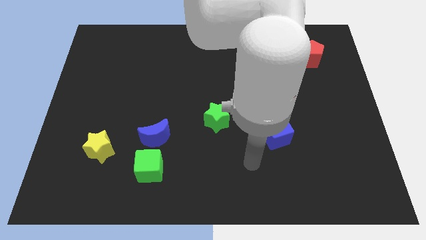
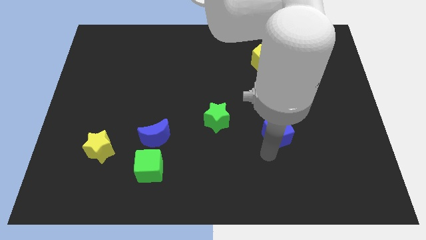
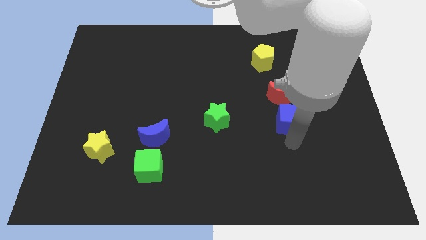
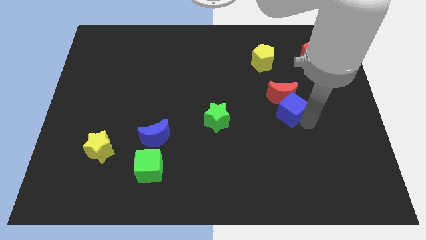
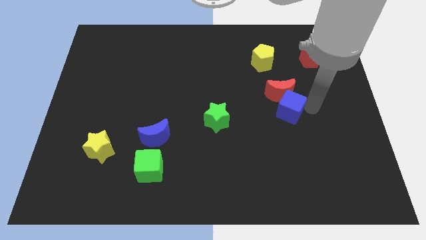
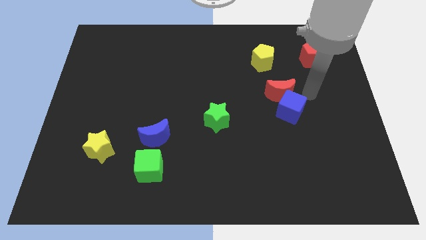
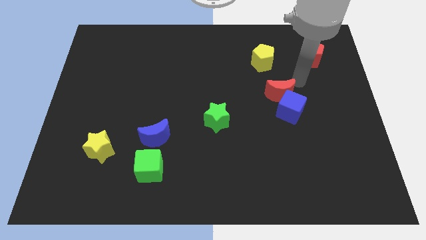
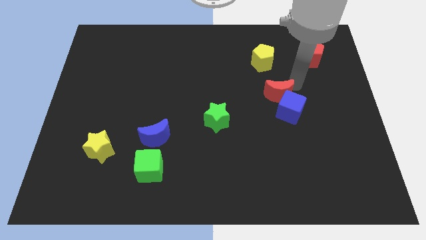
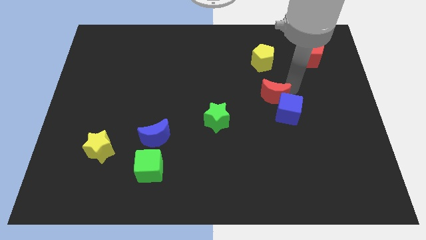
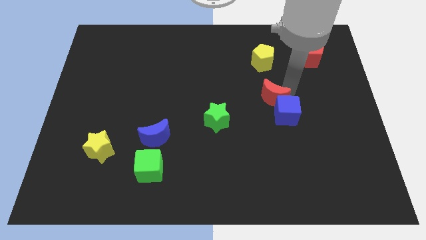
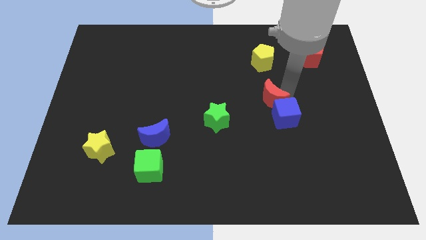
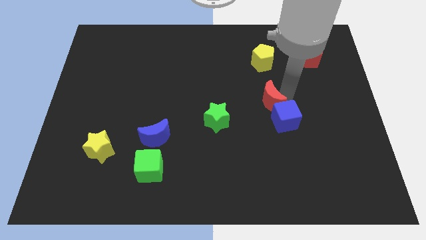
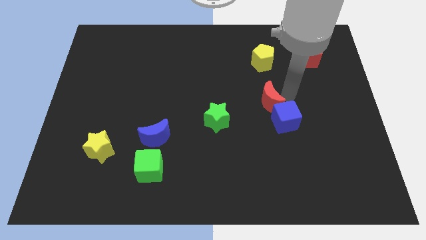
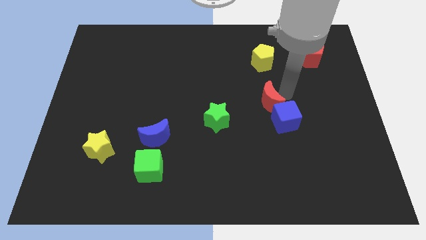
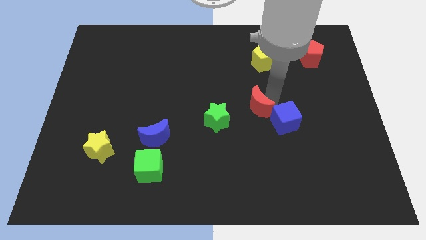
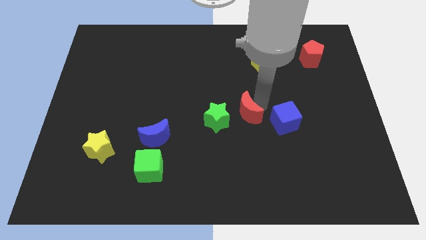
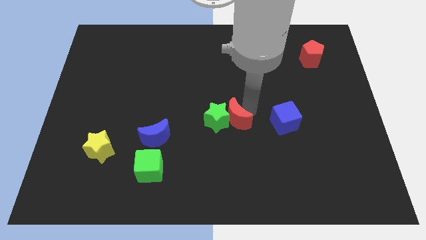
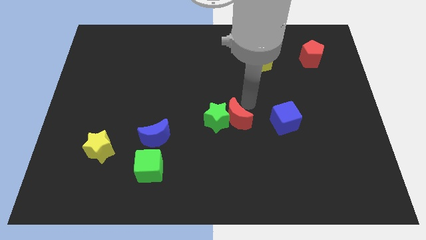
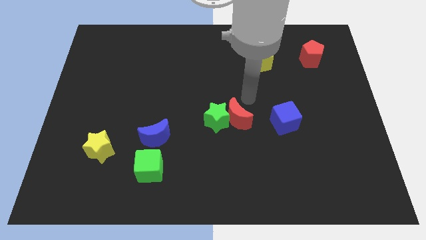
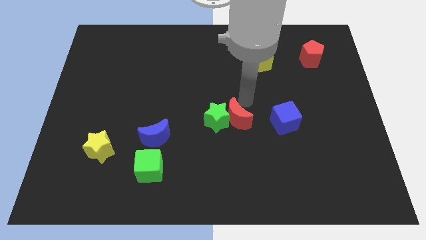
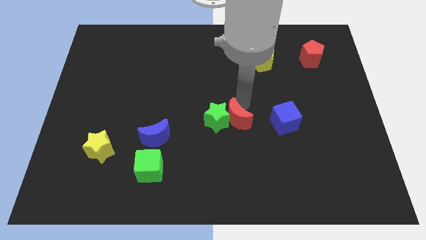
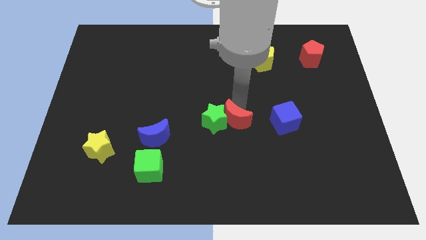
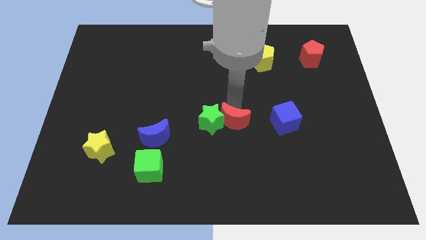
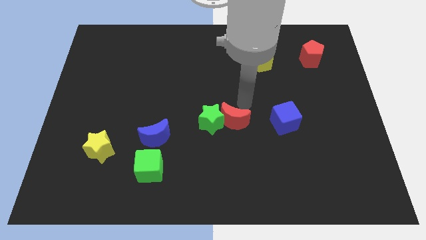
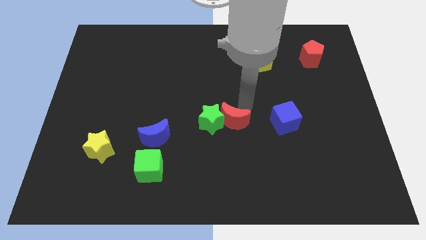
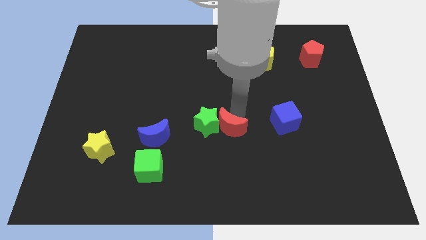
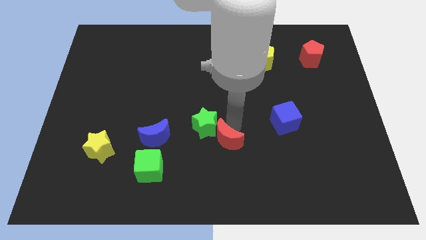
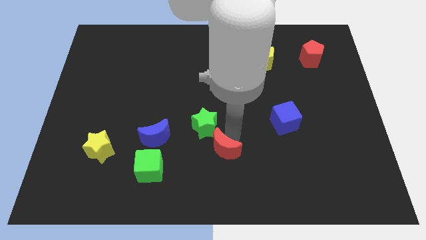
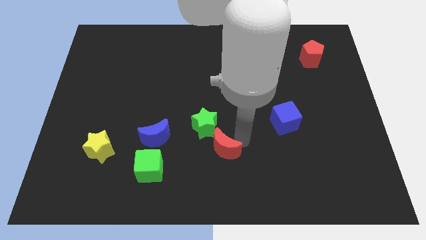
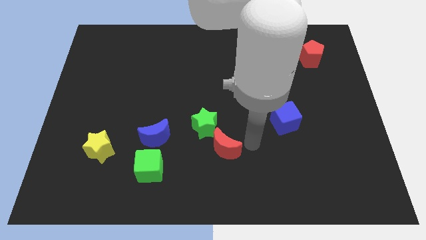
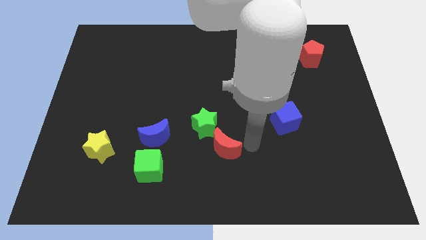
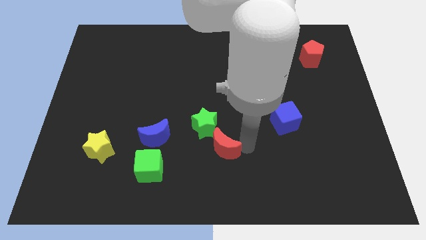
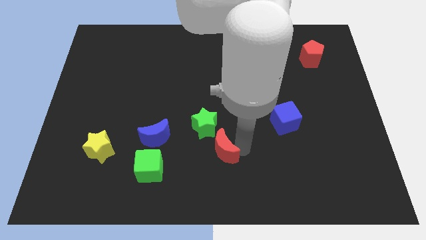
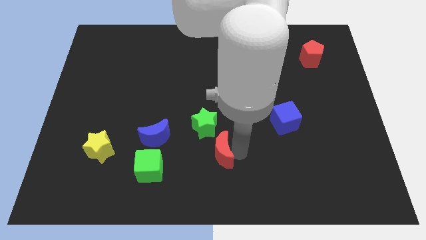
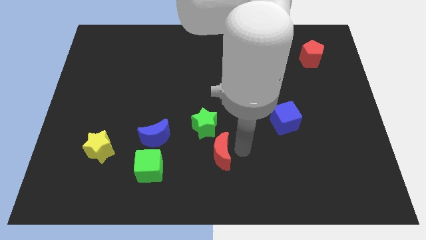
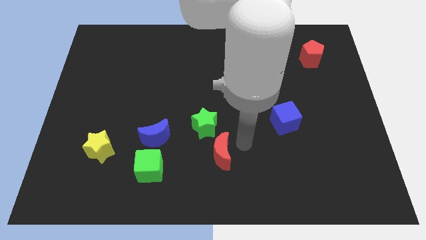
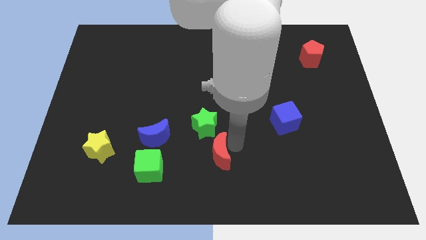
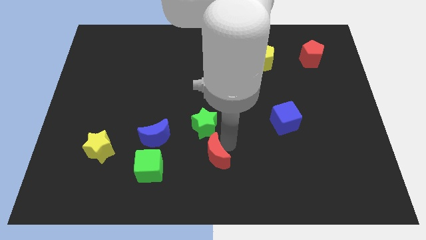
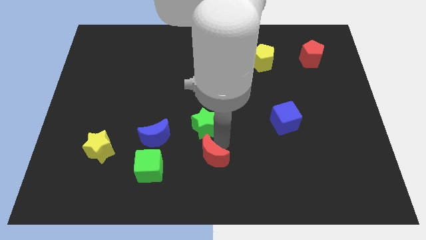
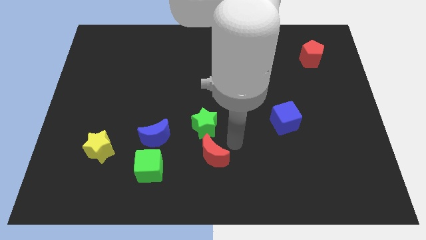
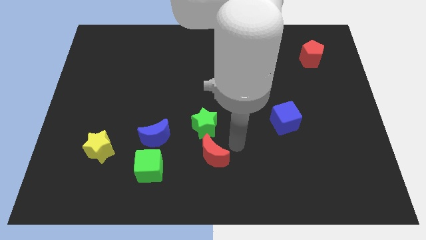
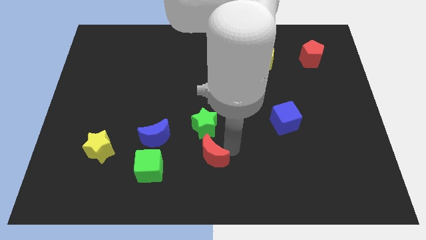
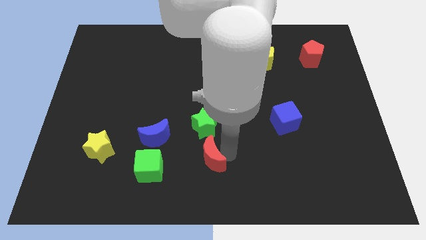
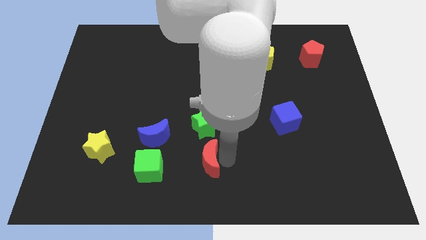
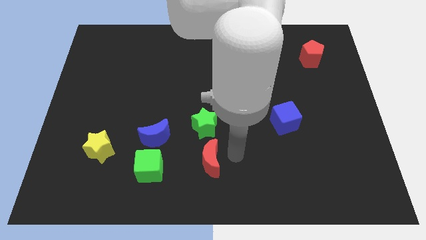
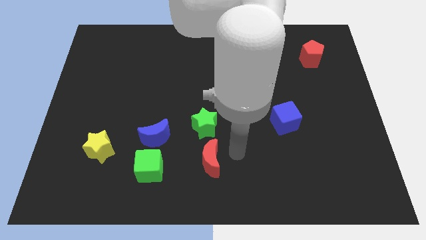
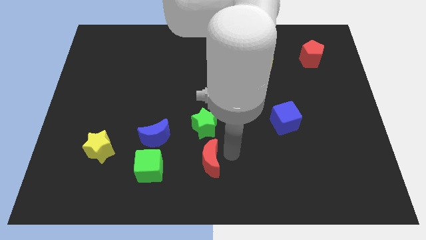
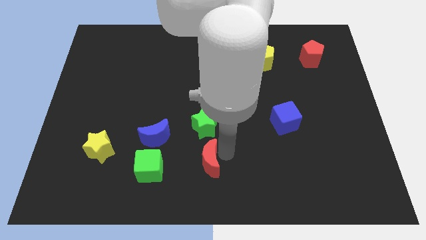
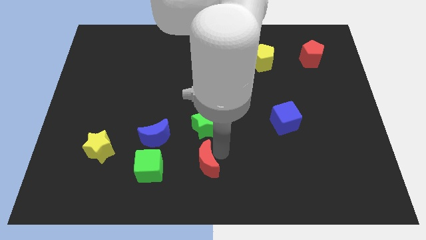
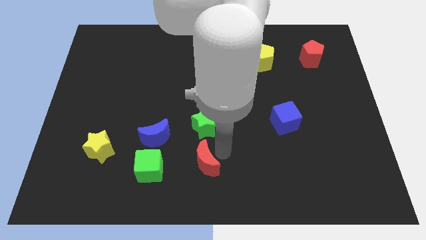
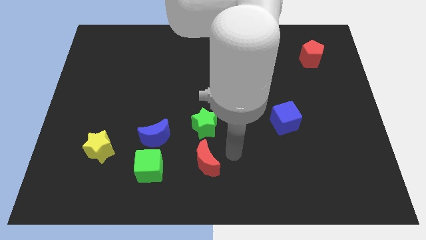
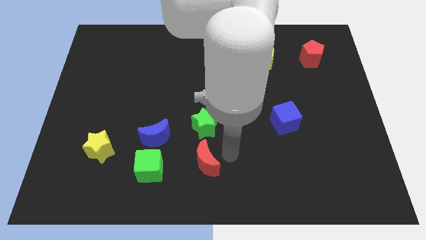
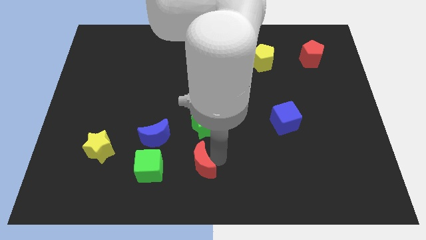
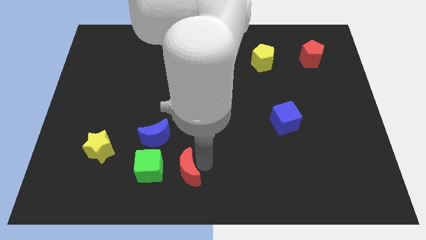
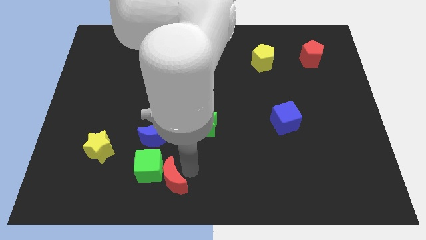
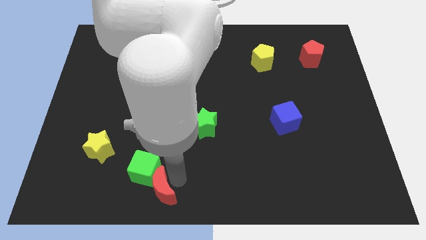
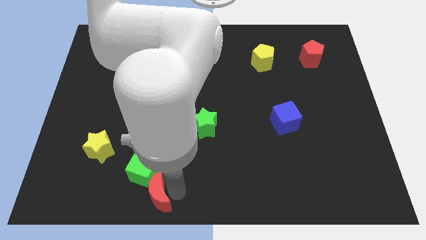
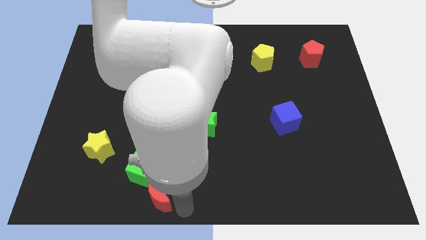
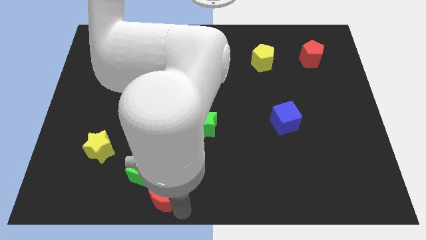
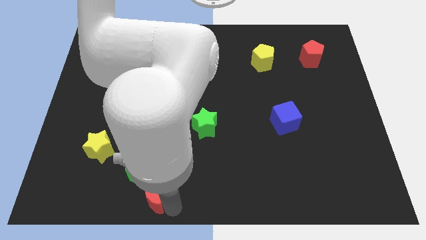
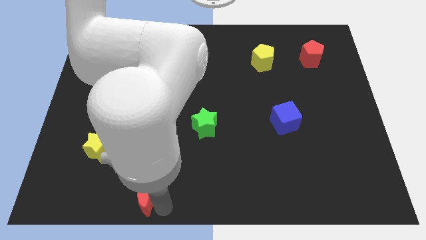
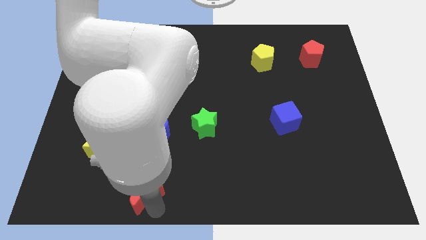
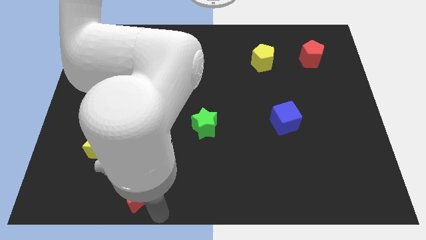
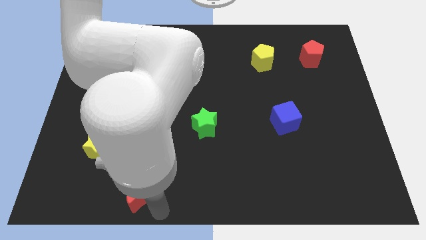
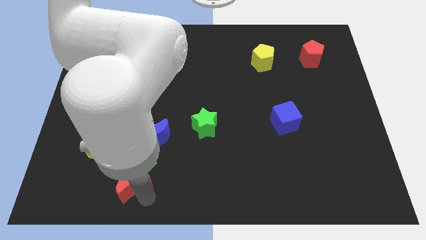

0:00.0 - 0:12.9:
slide the red moon to the bottom right side of the yellow star
